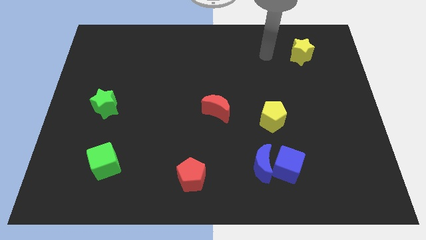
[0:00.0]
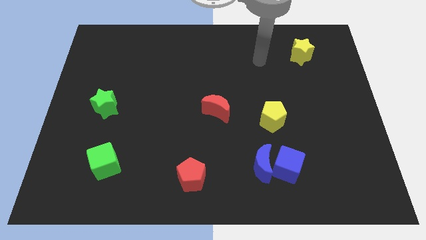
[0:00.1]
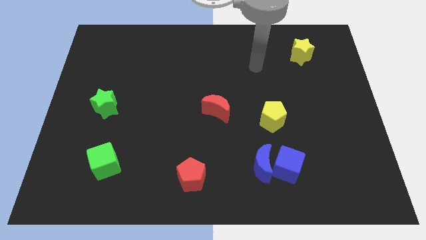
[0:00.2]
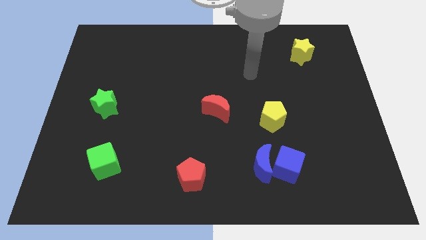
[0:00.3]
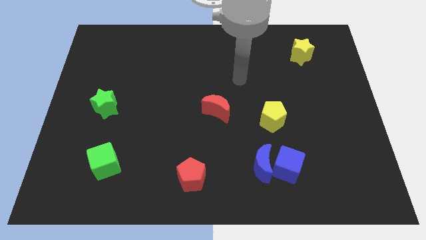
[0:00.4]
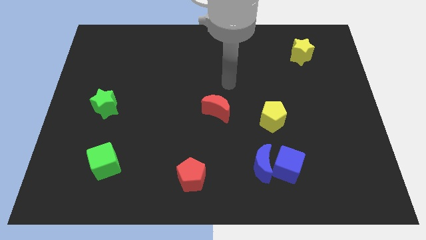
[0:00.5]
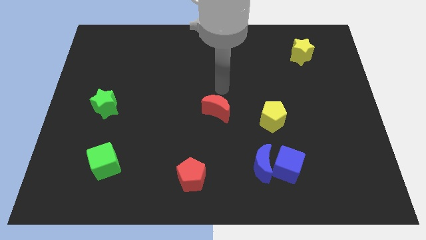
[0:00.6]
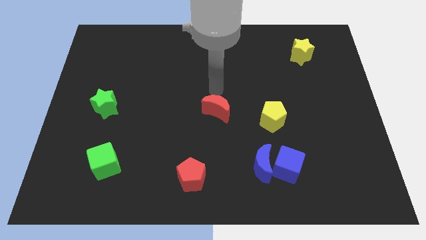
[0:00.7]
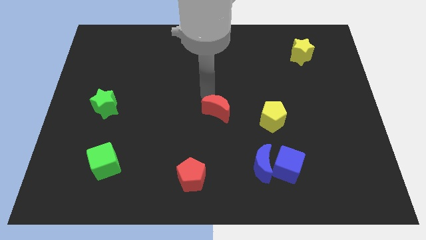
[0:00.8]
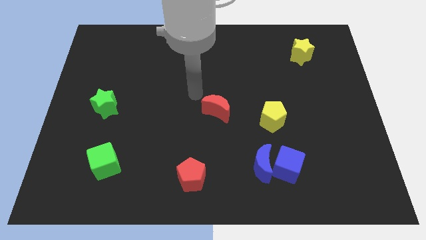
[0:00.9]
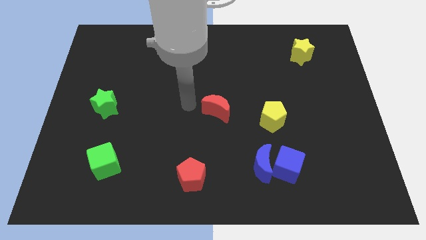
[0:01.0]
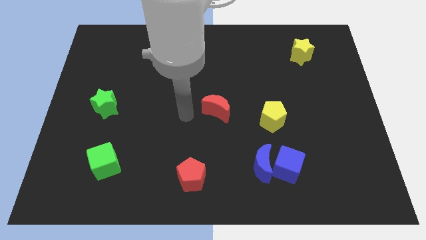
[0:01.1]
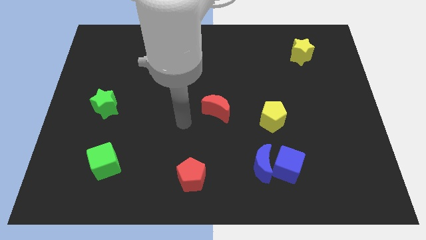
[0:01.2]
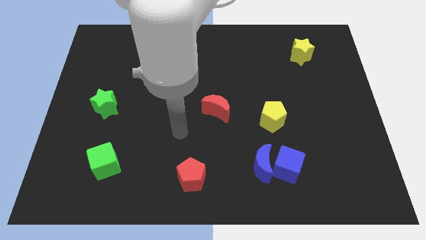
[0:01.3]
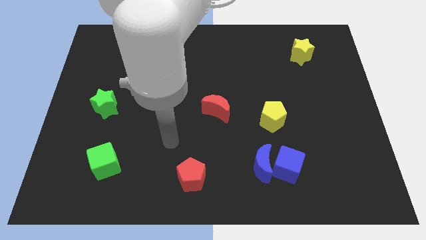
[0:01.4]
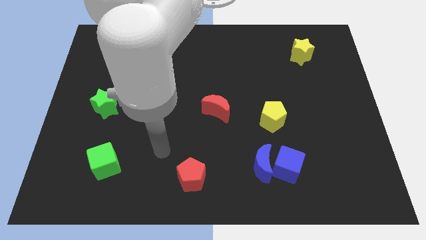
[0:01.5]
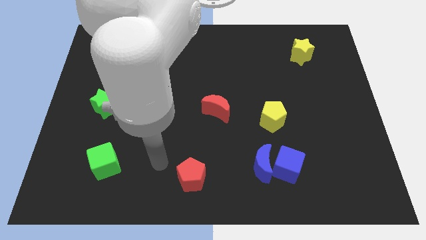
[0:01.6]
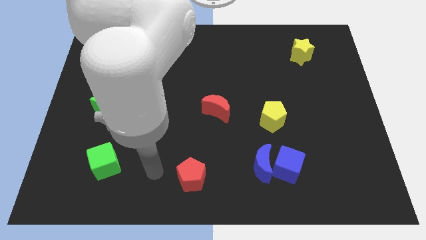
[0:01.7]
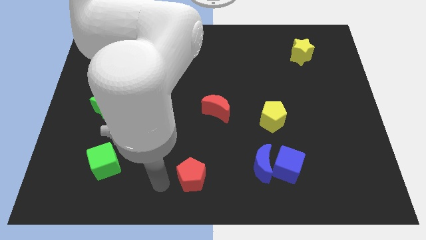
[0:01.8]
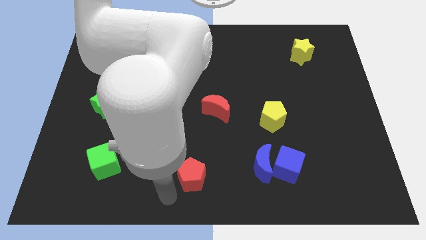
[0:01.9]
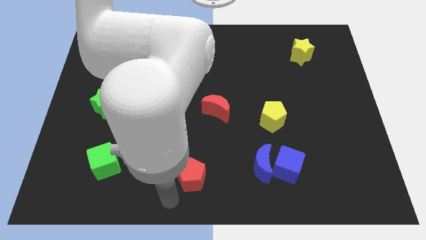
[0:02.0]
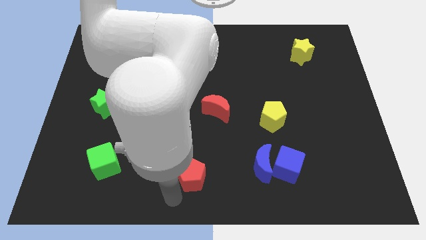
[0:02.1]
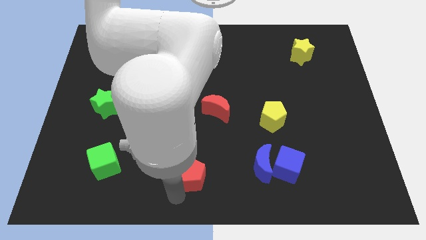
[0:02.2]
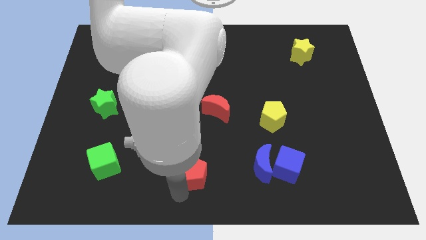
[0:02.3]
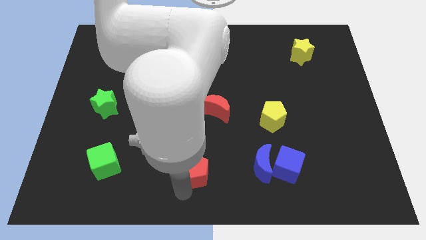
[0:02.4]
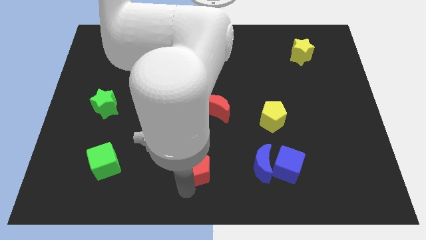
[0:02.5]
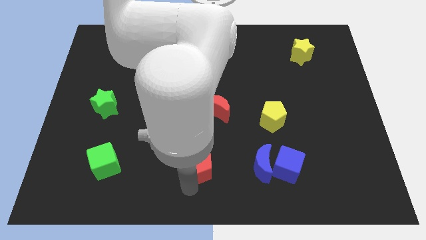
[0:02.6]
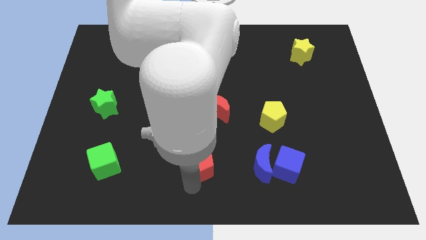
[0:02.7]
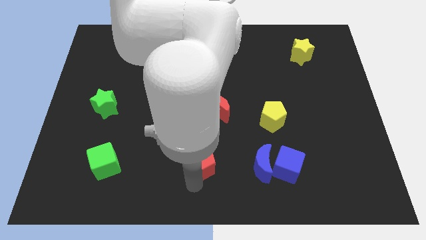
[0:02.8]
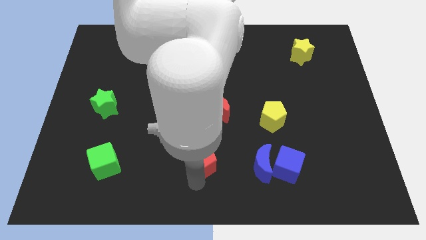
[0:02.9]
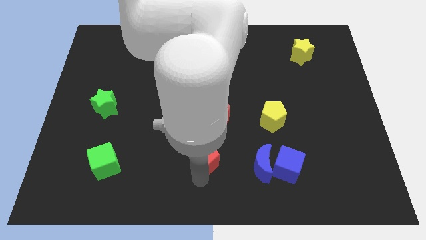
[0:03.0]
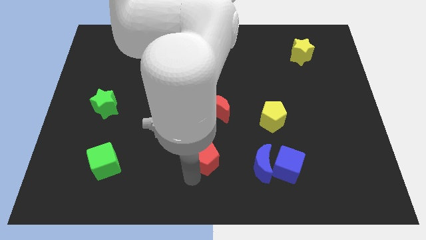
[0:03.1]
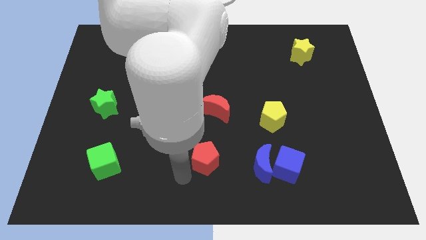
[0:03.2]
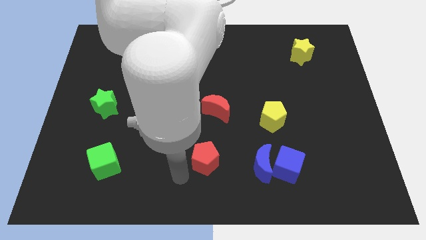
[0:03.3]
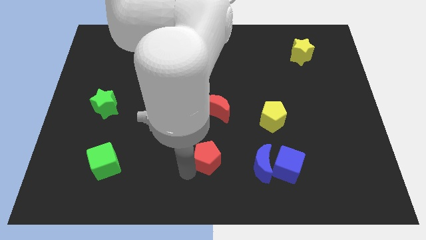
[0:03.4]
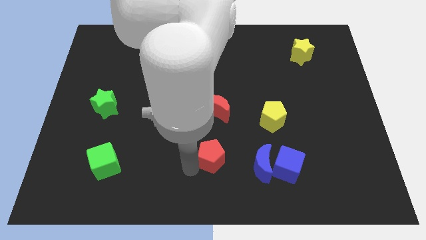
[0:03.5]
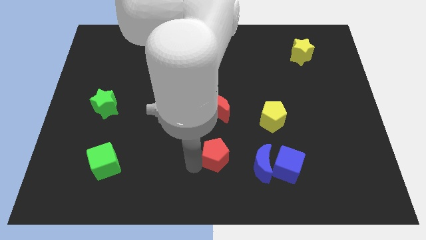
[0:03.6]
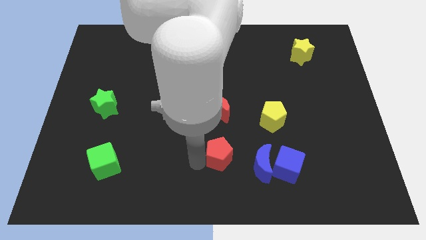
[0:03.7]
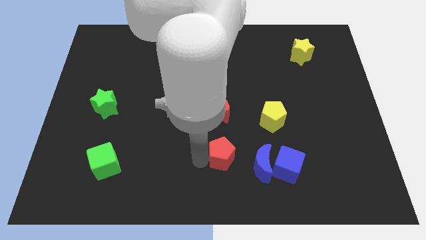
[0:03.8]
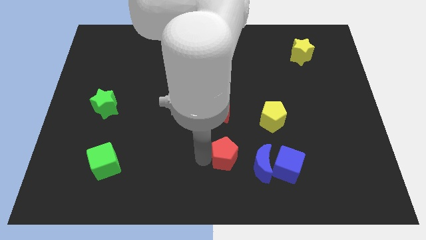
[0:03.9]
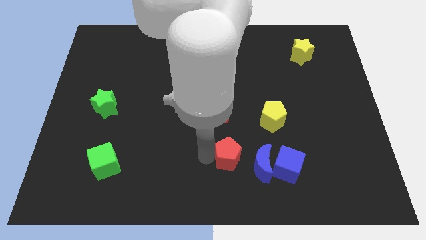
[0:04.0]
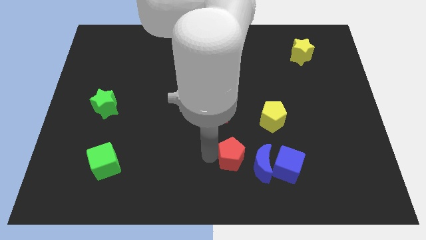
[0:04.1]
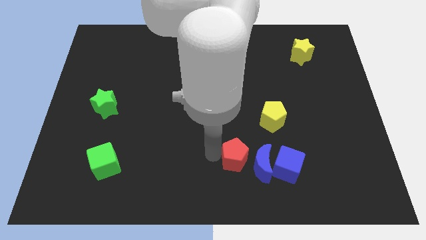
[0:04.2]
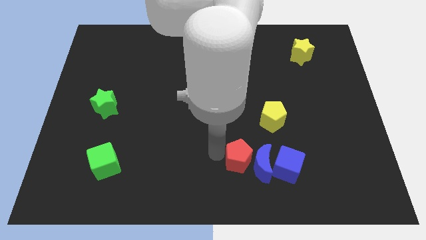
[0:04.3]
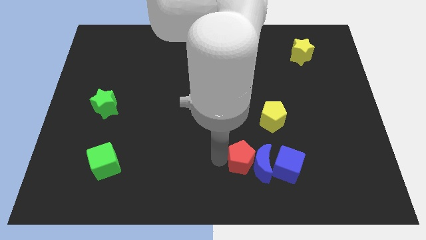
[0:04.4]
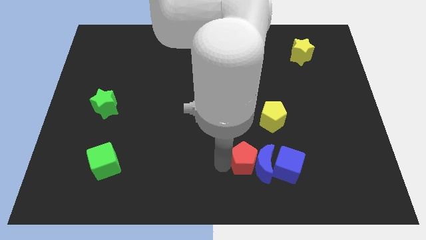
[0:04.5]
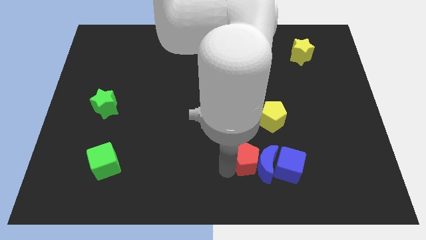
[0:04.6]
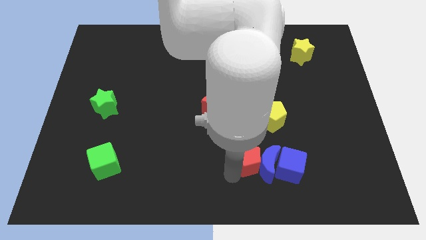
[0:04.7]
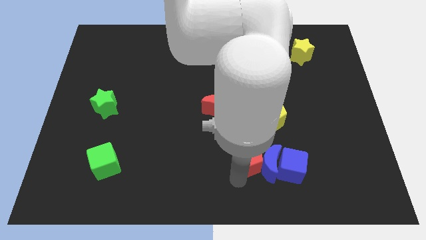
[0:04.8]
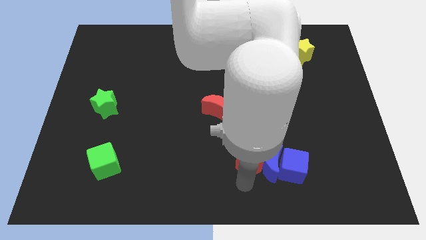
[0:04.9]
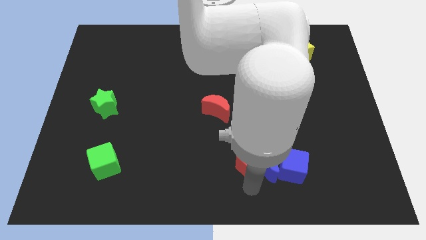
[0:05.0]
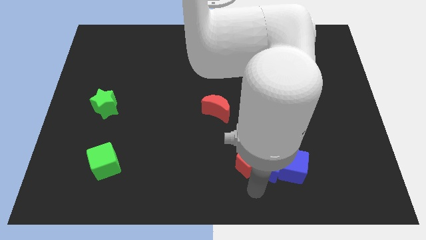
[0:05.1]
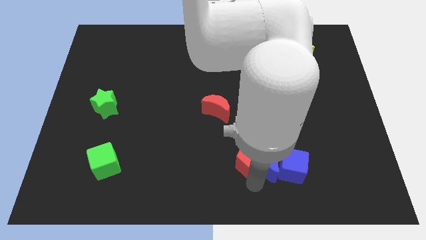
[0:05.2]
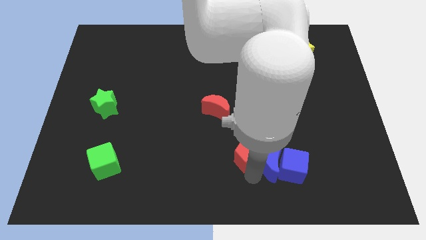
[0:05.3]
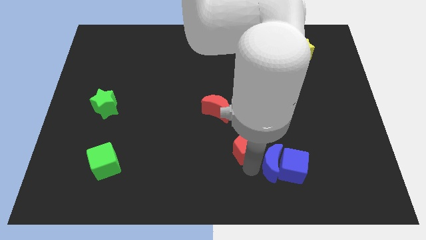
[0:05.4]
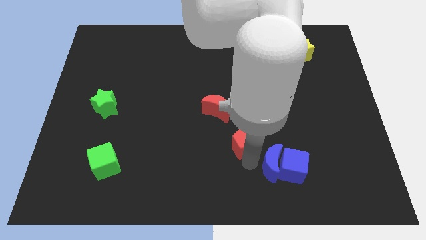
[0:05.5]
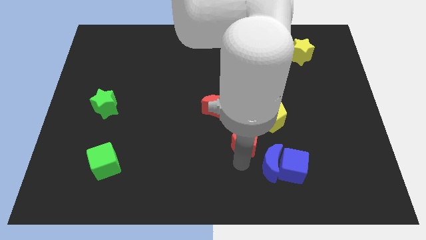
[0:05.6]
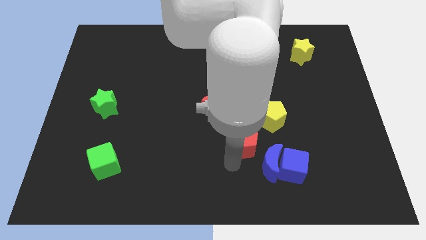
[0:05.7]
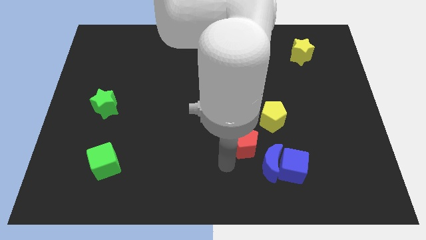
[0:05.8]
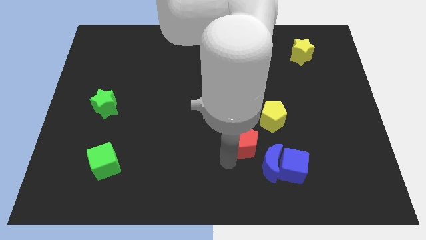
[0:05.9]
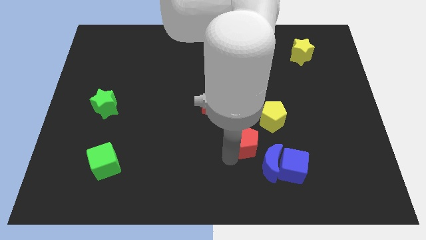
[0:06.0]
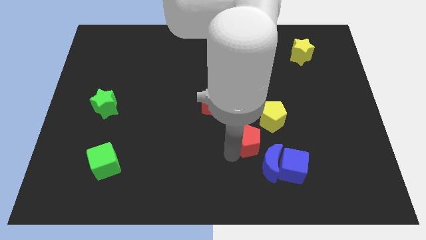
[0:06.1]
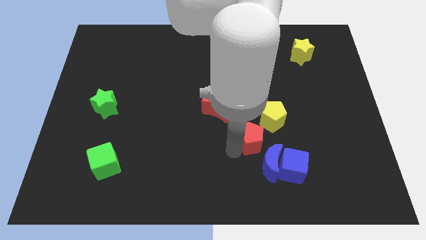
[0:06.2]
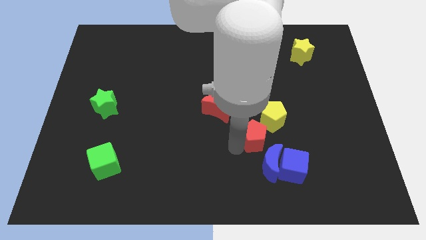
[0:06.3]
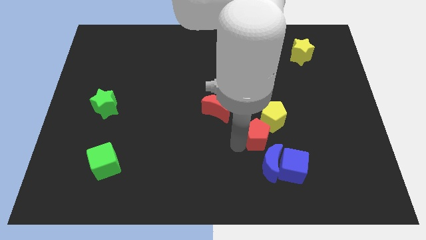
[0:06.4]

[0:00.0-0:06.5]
push the red pentagon towards the yellow pentagon
